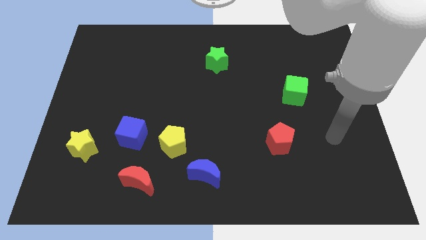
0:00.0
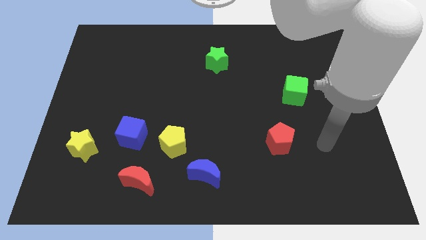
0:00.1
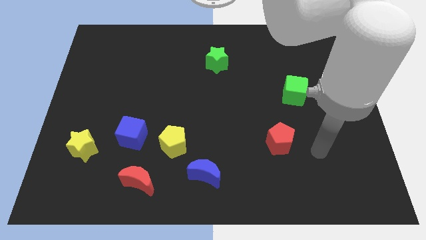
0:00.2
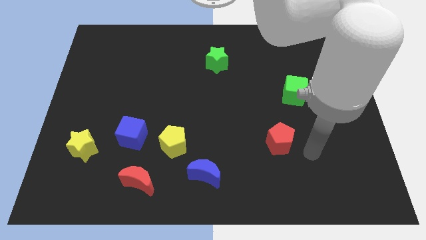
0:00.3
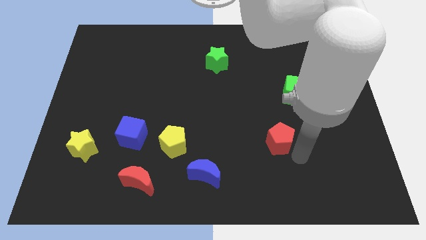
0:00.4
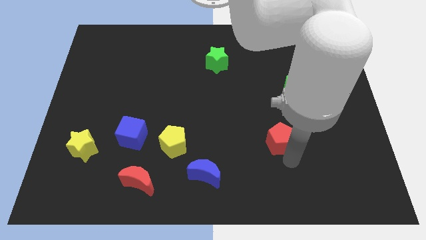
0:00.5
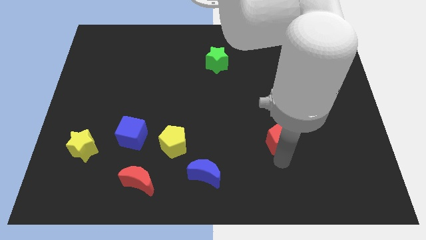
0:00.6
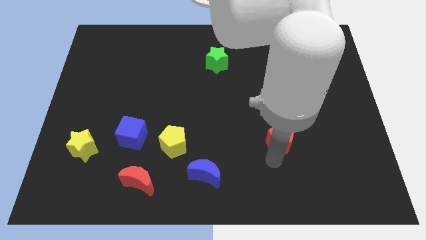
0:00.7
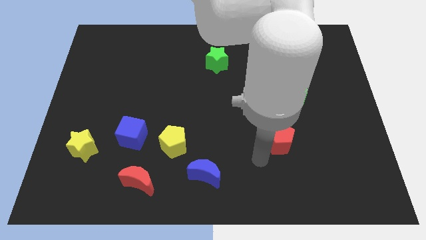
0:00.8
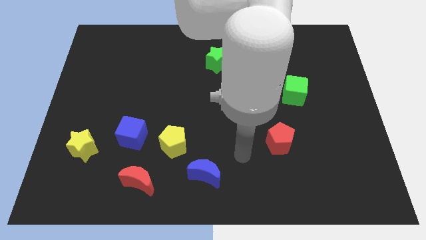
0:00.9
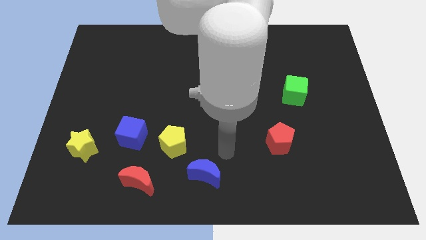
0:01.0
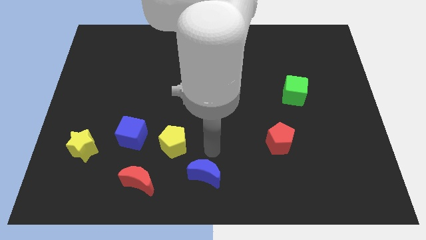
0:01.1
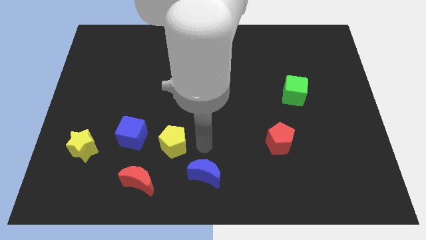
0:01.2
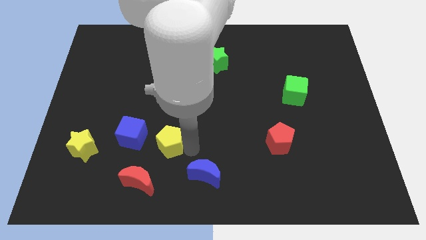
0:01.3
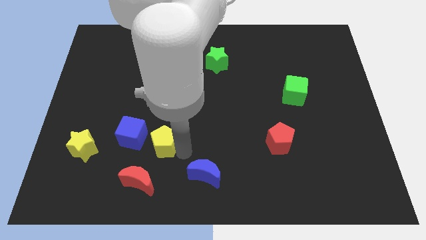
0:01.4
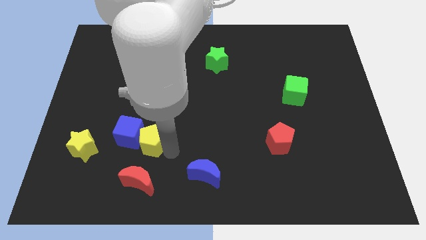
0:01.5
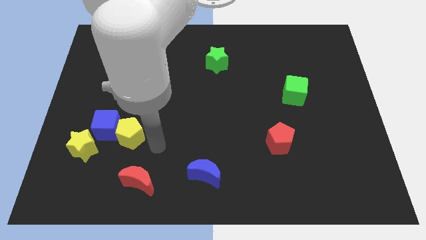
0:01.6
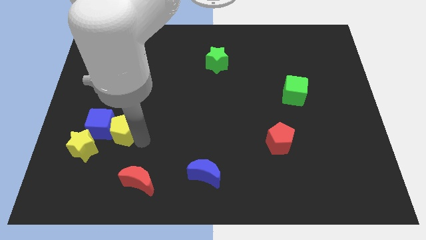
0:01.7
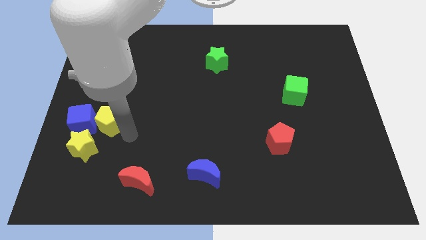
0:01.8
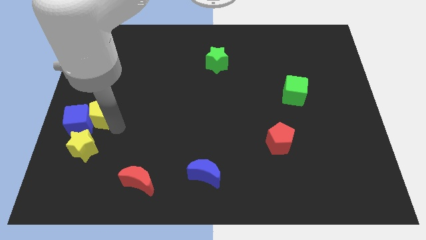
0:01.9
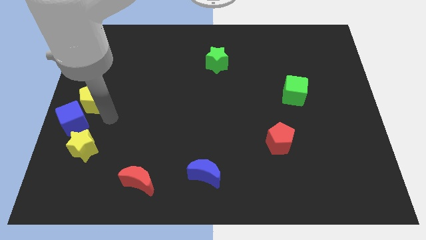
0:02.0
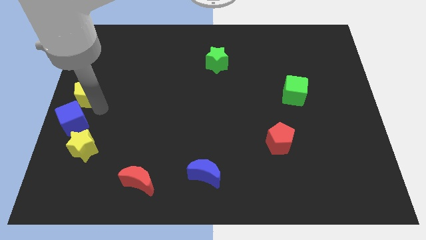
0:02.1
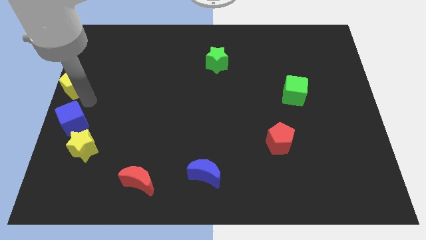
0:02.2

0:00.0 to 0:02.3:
pull the blue cube apart from the yellow pentagon

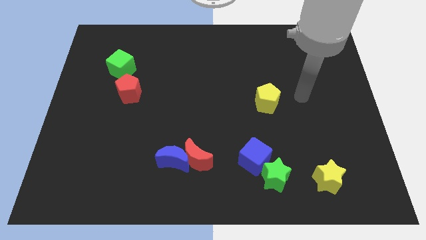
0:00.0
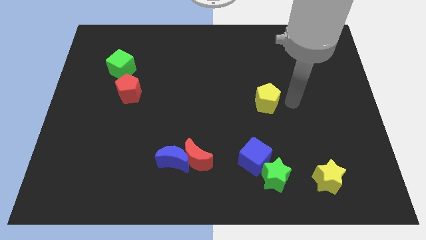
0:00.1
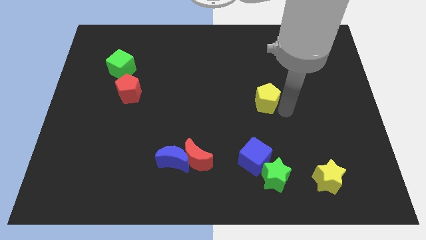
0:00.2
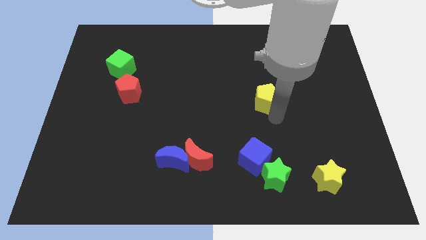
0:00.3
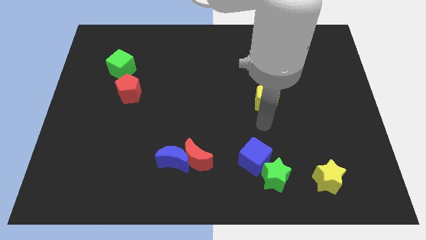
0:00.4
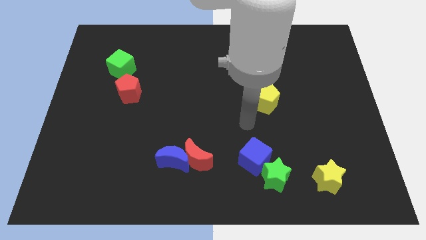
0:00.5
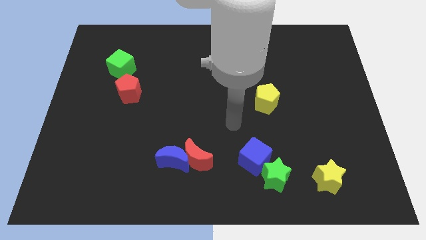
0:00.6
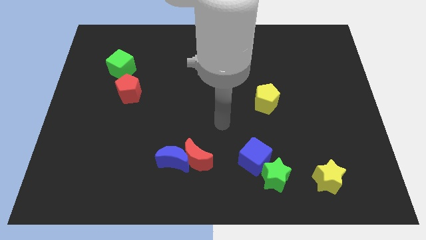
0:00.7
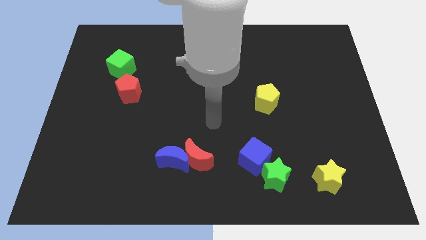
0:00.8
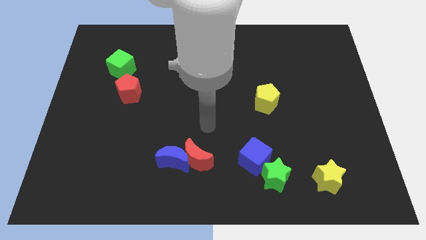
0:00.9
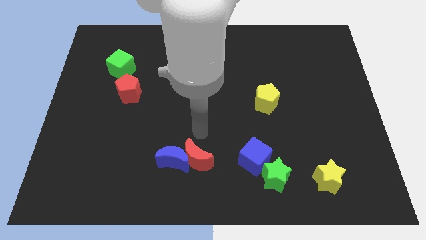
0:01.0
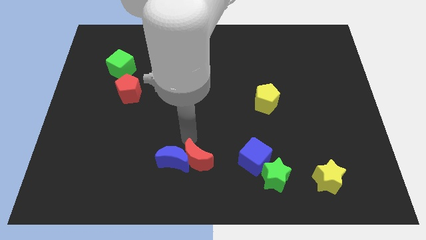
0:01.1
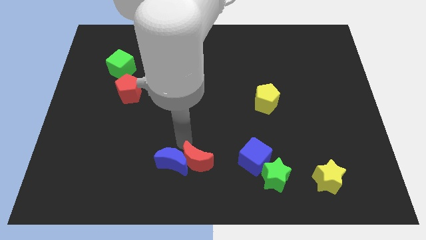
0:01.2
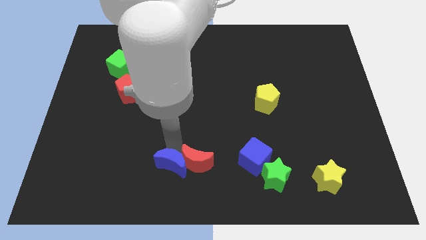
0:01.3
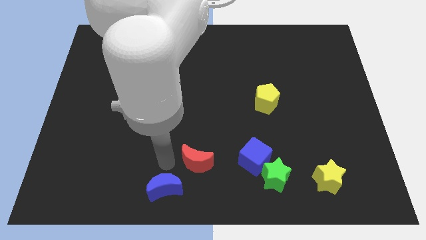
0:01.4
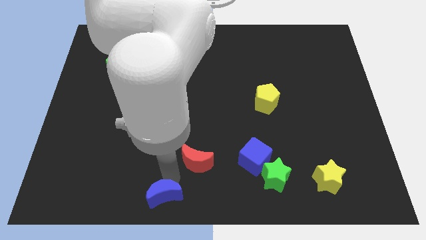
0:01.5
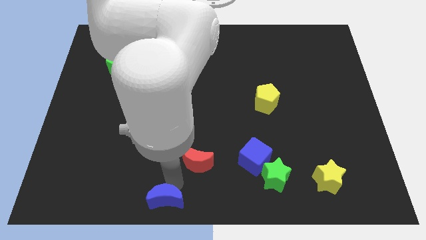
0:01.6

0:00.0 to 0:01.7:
separate the red moon from the blue moon

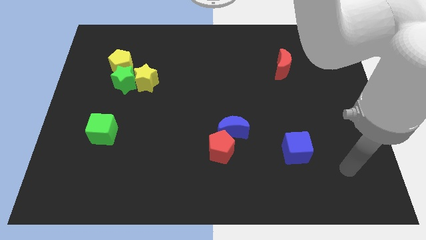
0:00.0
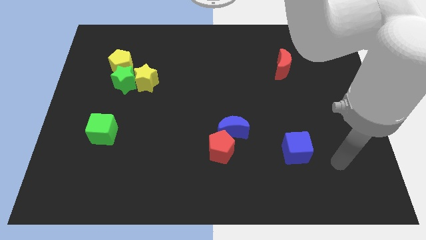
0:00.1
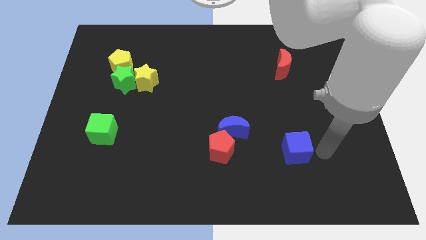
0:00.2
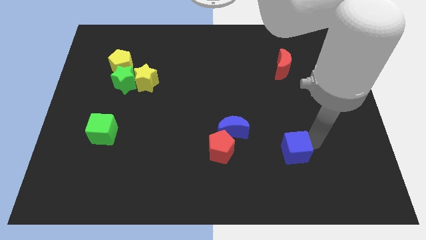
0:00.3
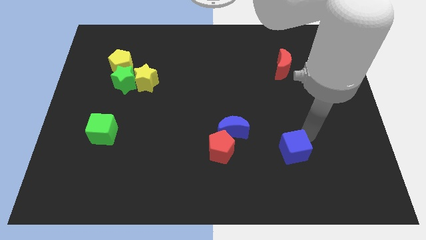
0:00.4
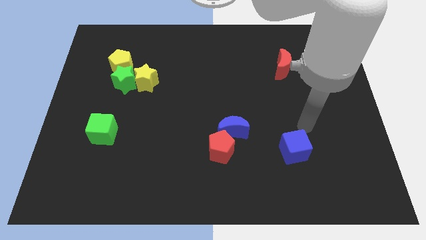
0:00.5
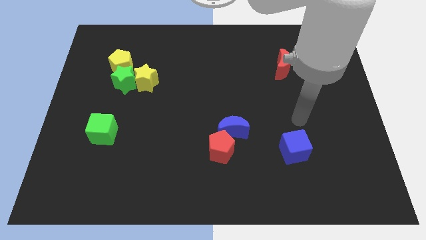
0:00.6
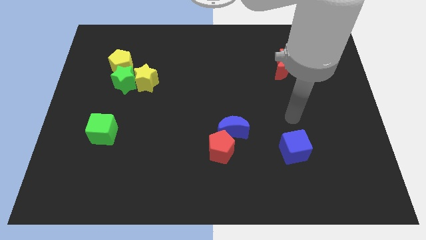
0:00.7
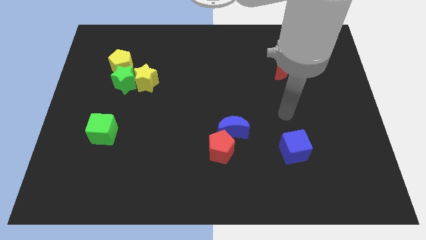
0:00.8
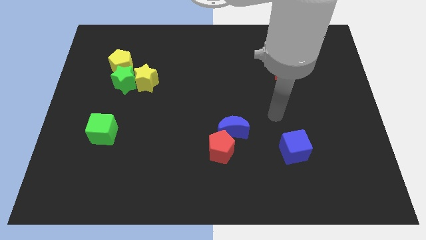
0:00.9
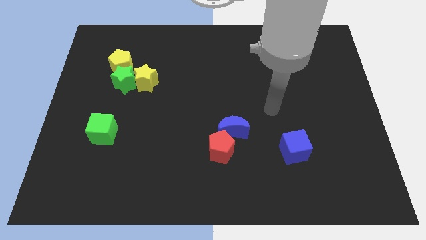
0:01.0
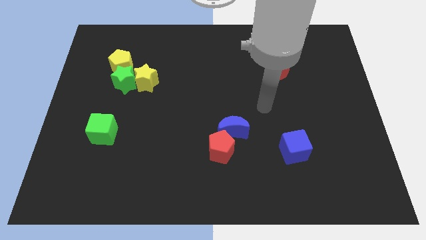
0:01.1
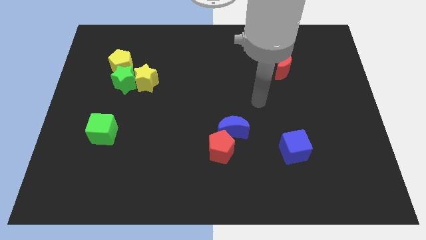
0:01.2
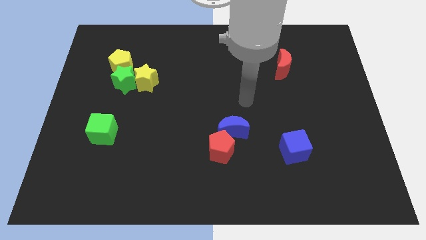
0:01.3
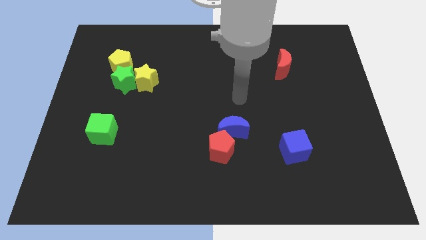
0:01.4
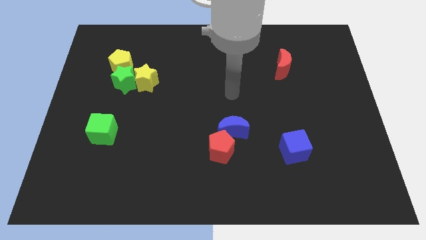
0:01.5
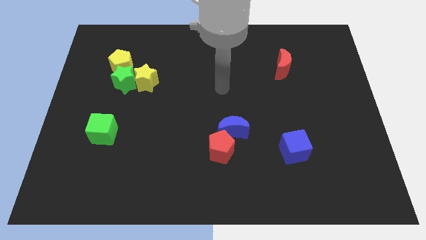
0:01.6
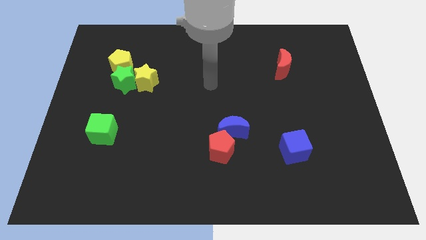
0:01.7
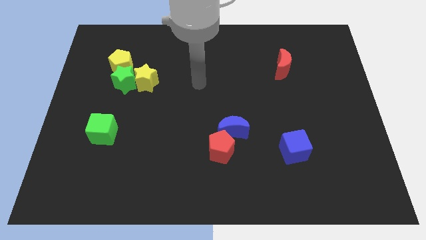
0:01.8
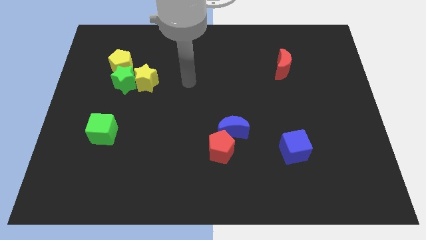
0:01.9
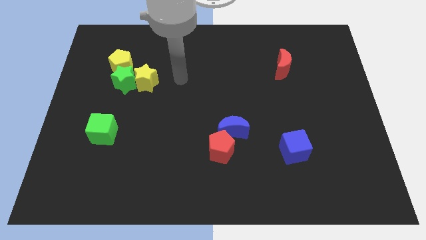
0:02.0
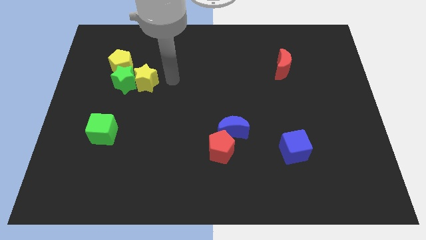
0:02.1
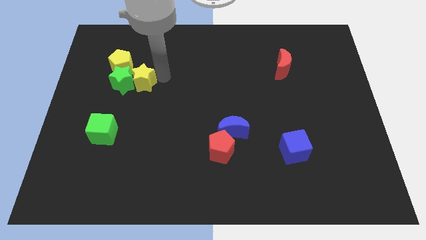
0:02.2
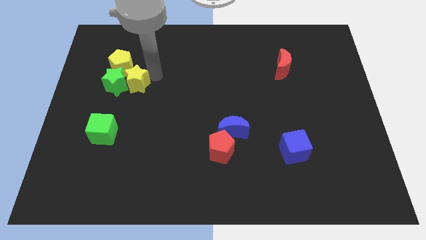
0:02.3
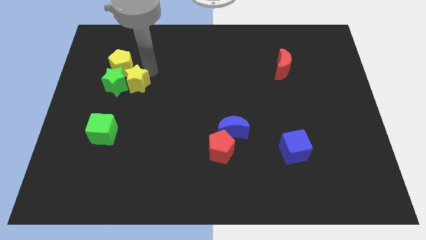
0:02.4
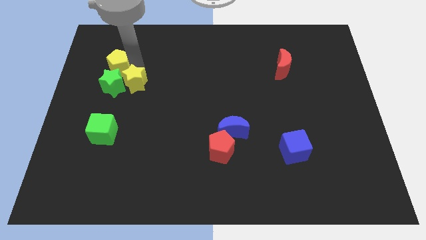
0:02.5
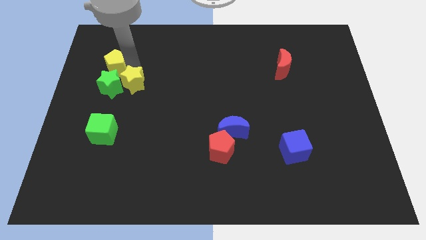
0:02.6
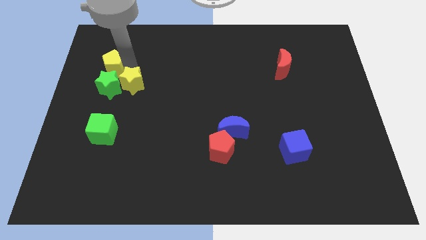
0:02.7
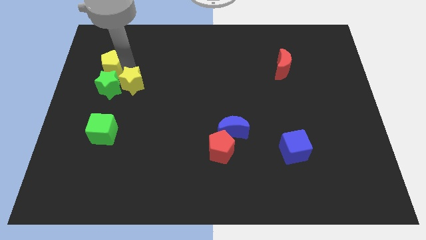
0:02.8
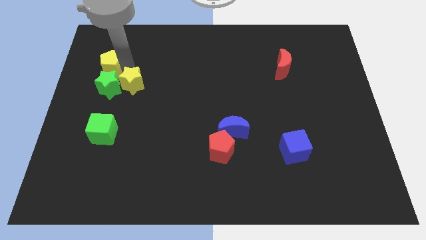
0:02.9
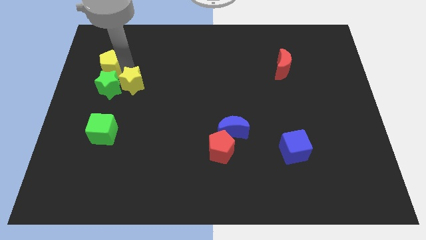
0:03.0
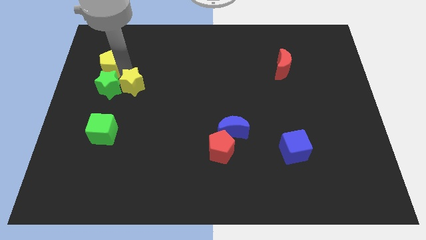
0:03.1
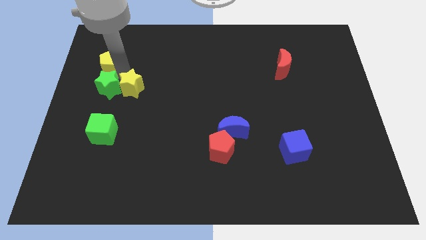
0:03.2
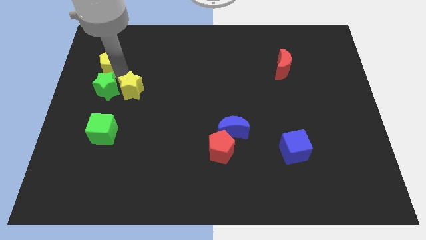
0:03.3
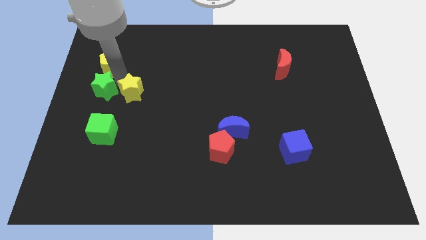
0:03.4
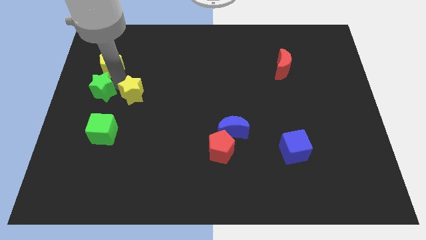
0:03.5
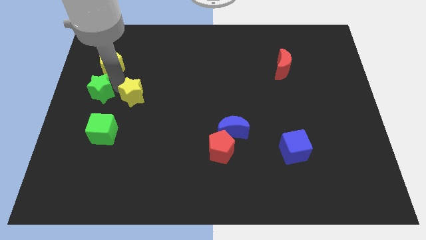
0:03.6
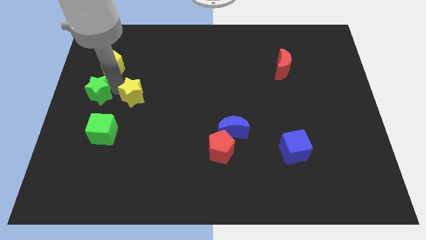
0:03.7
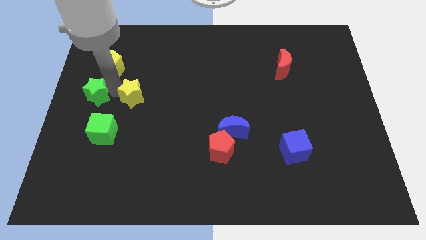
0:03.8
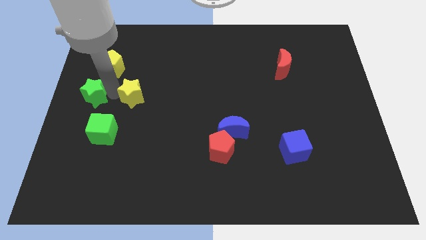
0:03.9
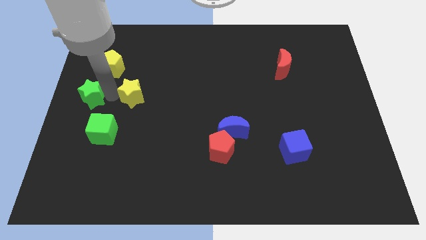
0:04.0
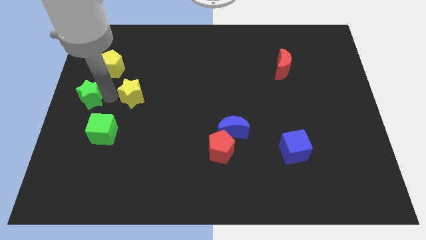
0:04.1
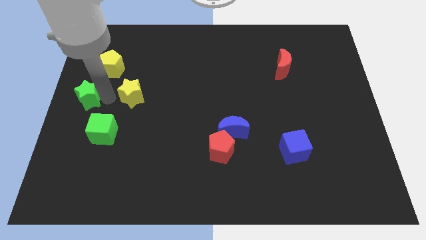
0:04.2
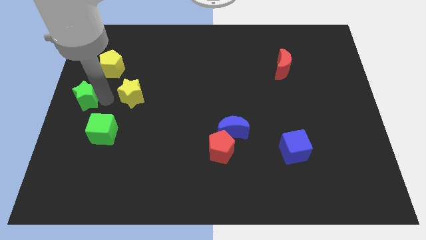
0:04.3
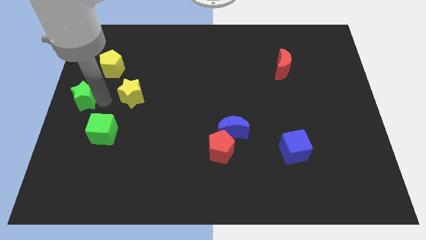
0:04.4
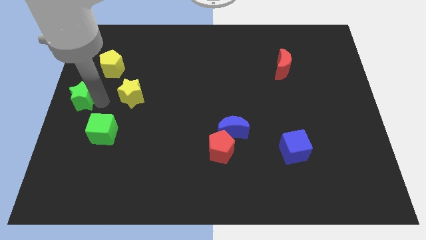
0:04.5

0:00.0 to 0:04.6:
separate the green star from the yellow star and yellow pentagon

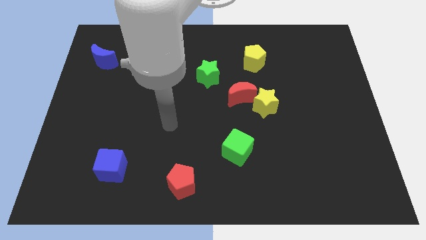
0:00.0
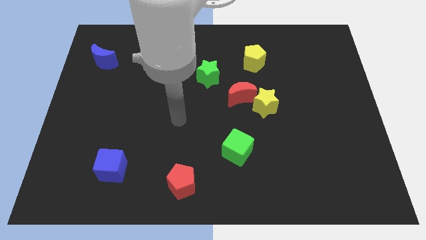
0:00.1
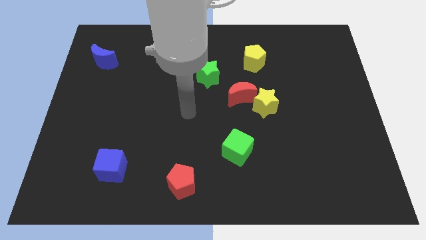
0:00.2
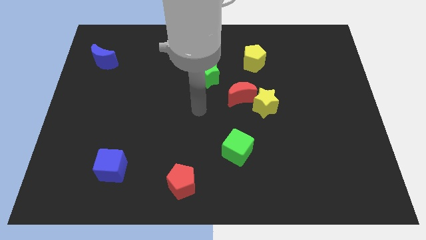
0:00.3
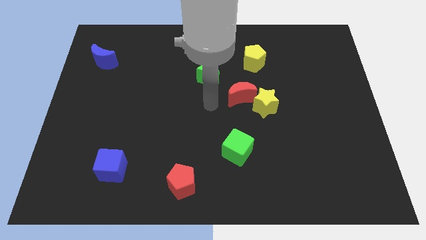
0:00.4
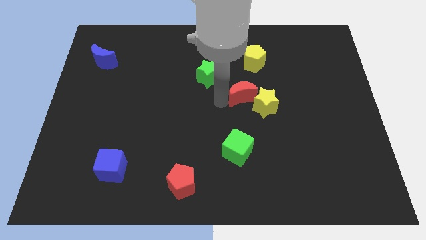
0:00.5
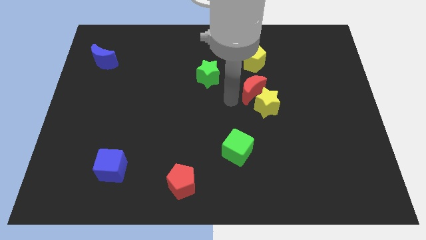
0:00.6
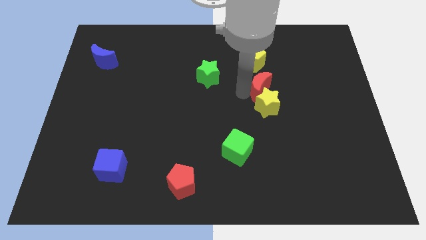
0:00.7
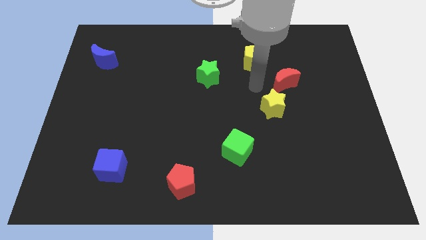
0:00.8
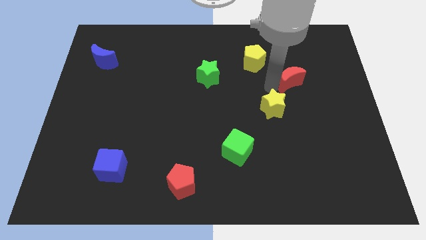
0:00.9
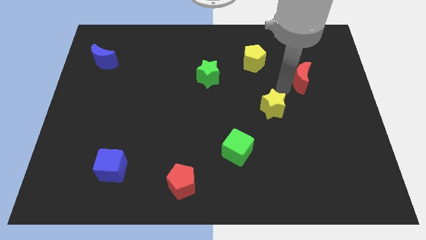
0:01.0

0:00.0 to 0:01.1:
pull the yellow star apart from the red moon
